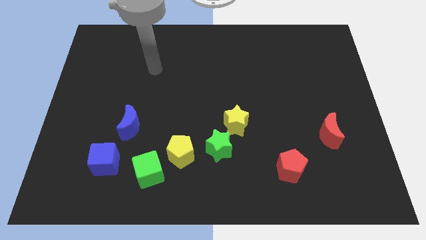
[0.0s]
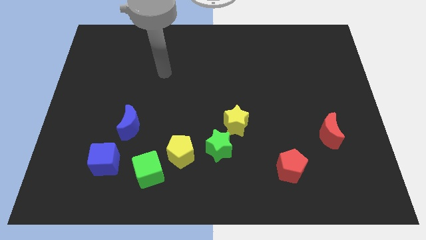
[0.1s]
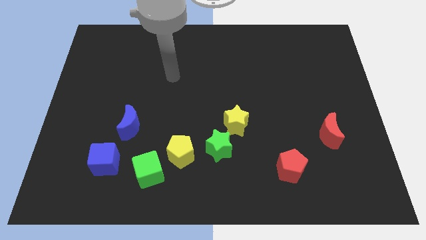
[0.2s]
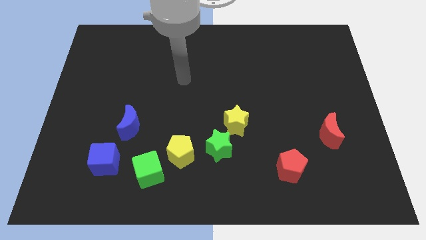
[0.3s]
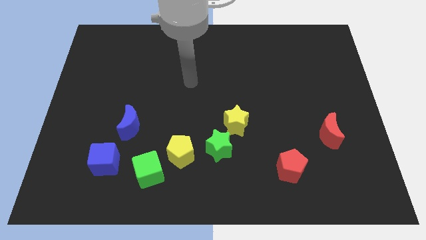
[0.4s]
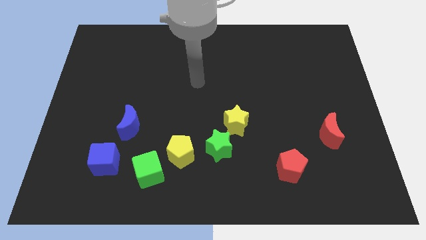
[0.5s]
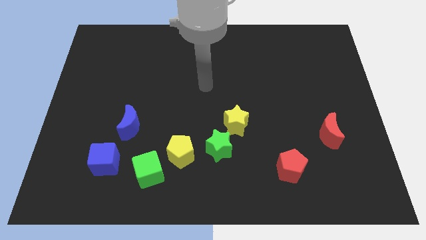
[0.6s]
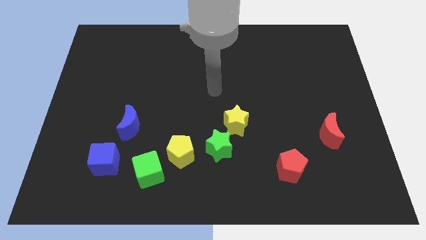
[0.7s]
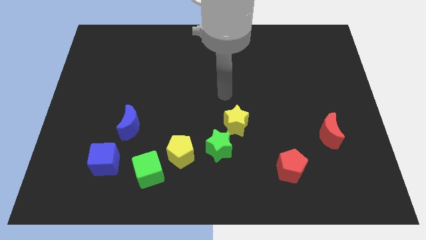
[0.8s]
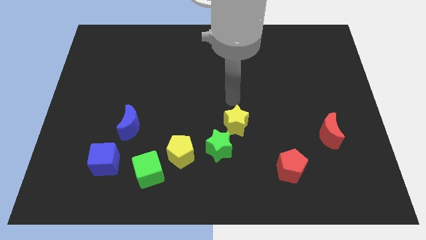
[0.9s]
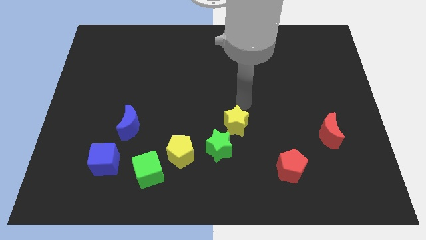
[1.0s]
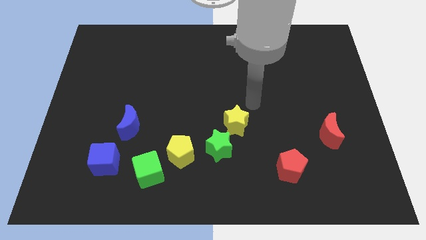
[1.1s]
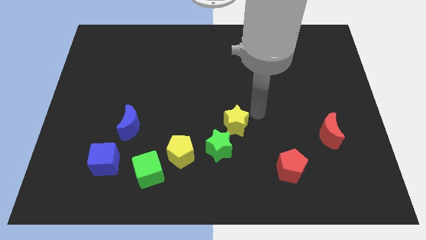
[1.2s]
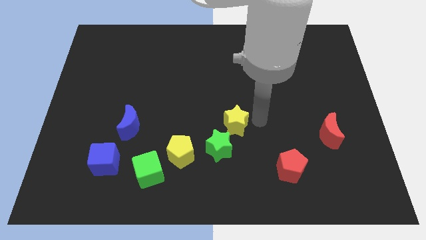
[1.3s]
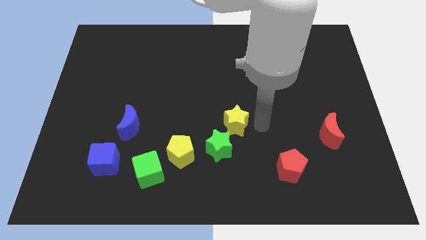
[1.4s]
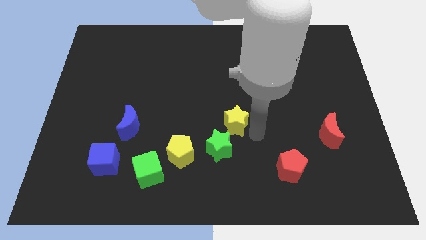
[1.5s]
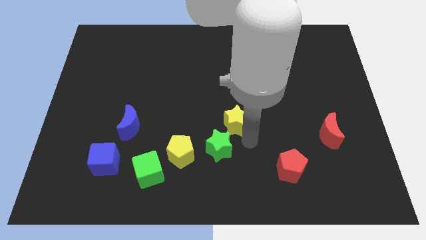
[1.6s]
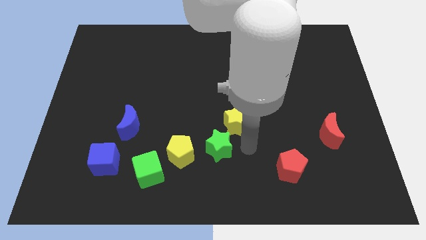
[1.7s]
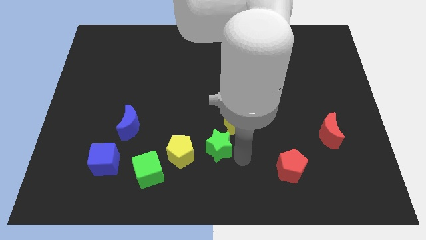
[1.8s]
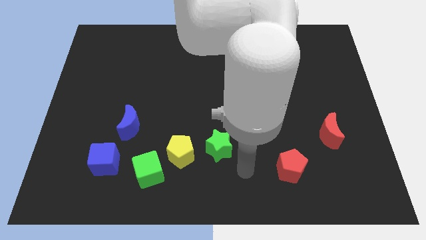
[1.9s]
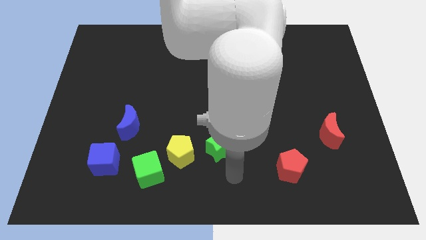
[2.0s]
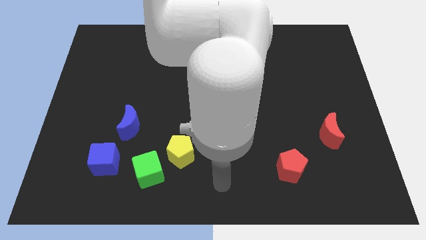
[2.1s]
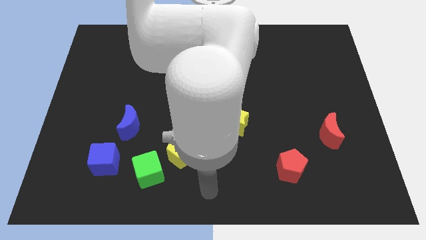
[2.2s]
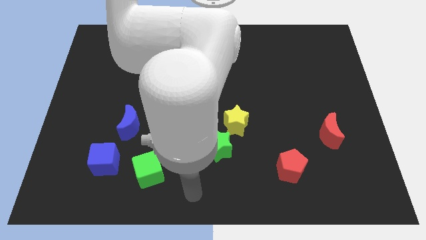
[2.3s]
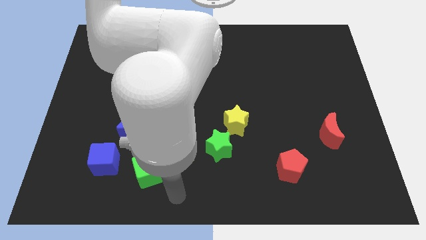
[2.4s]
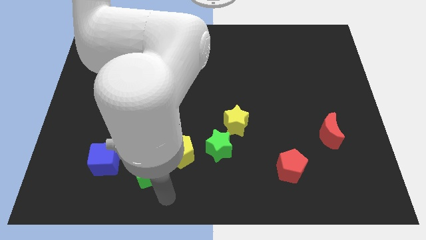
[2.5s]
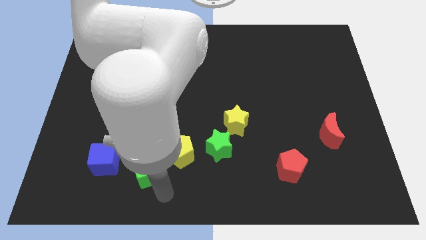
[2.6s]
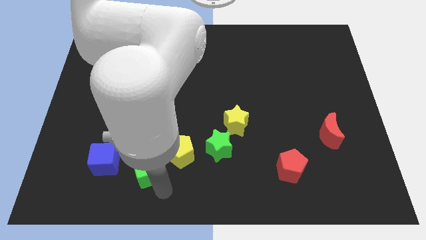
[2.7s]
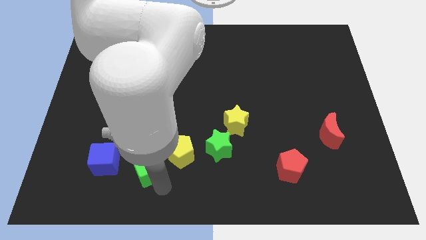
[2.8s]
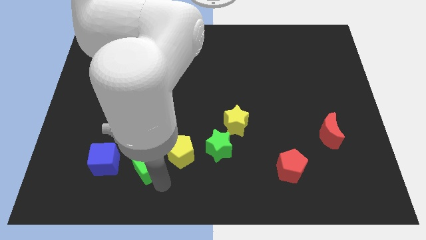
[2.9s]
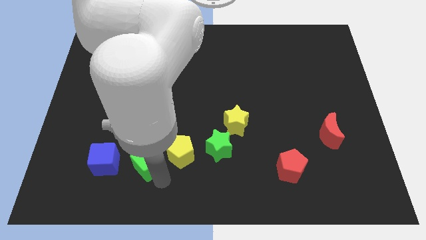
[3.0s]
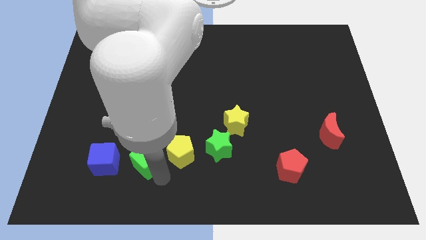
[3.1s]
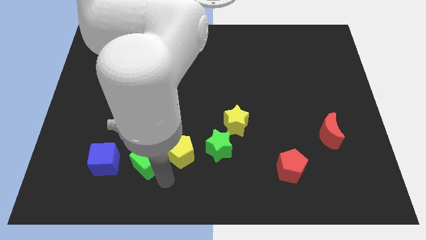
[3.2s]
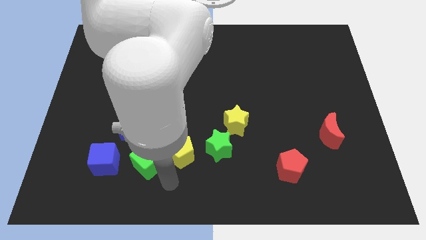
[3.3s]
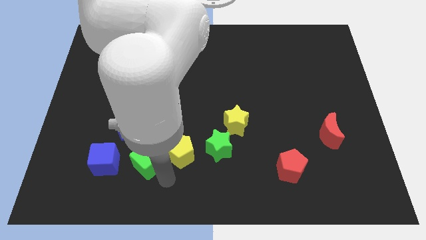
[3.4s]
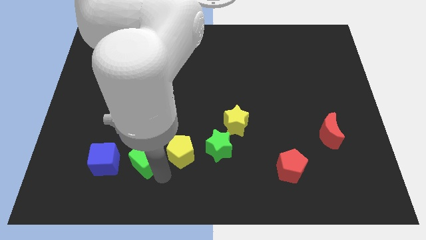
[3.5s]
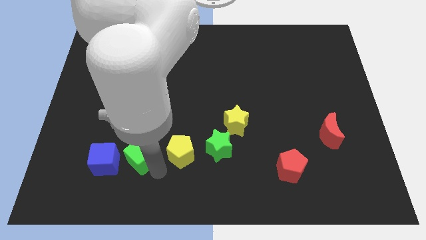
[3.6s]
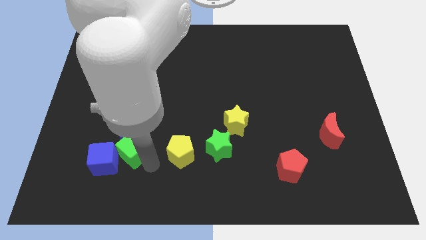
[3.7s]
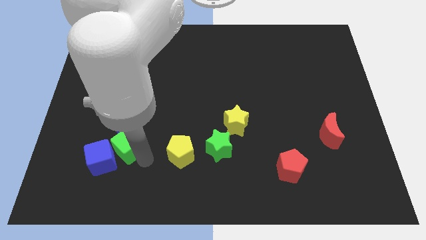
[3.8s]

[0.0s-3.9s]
slightly move the green cube upwards and to the left diagonally

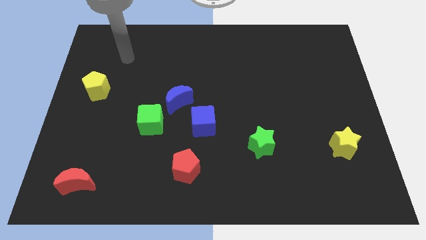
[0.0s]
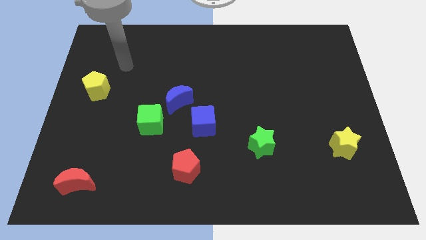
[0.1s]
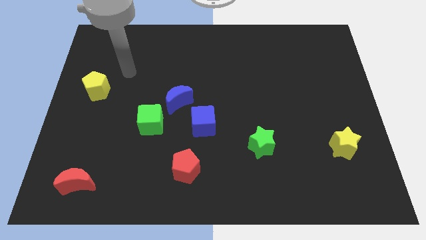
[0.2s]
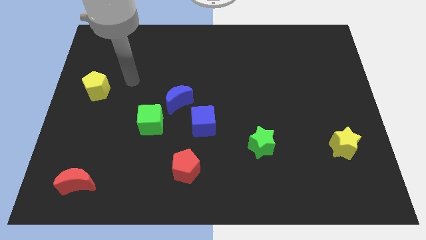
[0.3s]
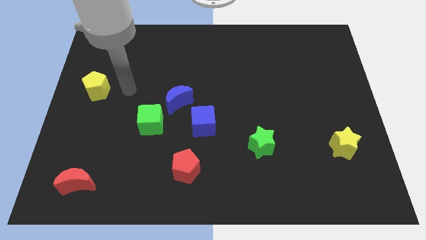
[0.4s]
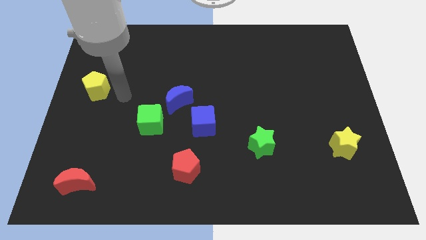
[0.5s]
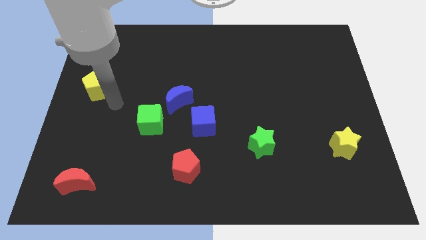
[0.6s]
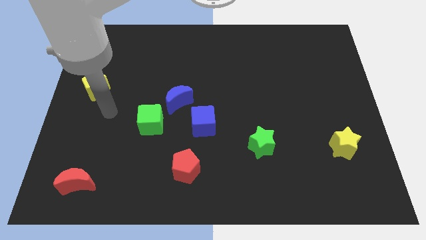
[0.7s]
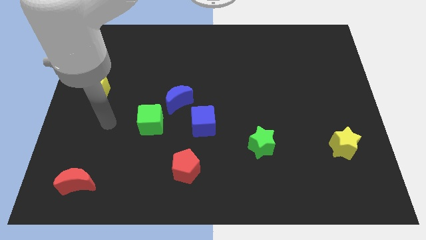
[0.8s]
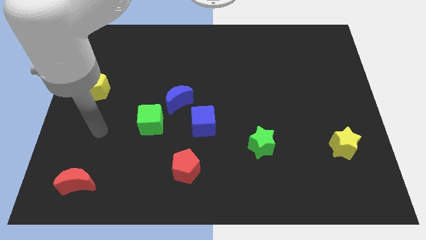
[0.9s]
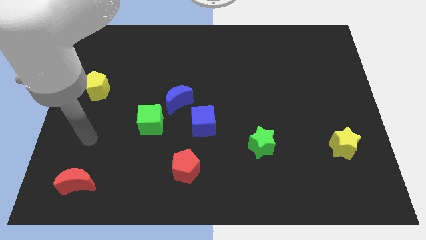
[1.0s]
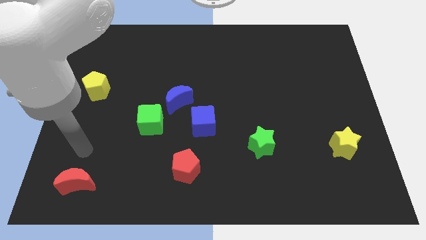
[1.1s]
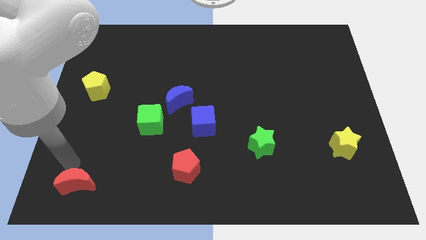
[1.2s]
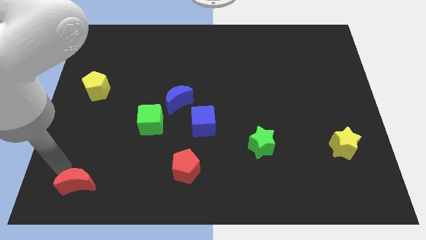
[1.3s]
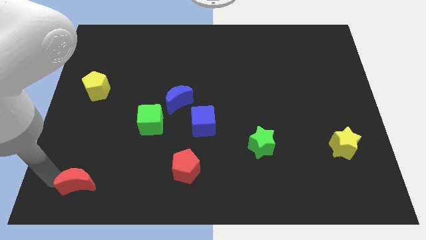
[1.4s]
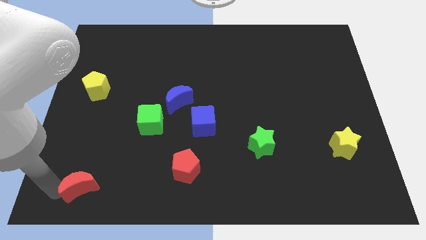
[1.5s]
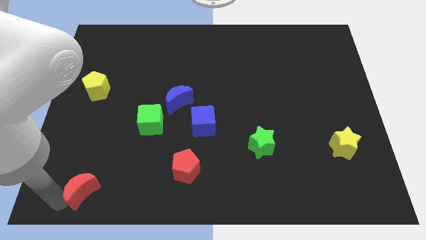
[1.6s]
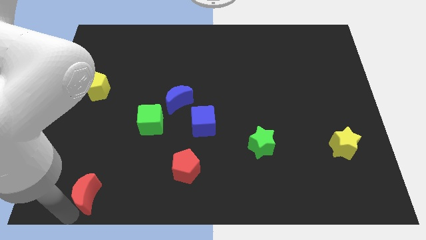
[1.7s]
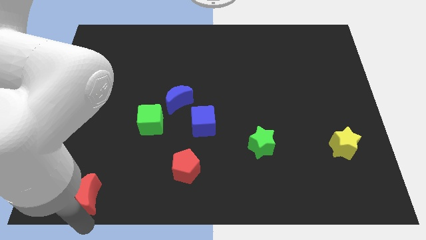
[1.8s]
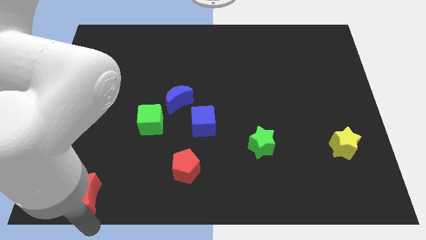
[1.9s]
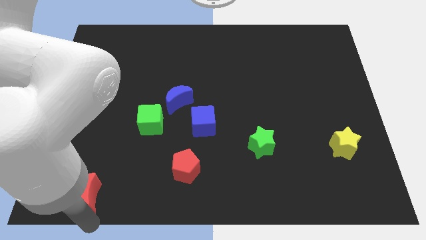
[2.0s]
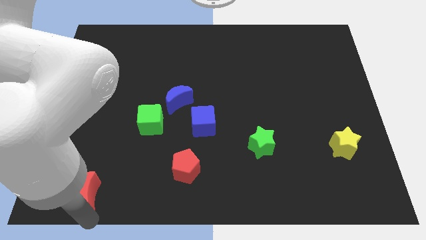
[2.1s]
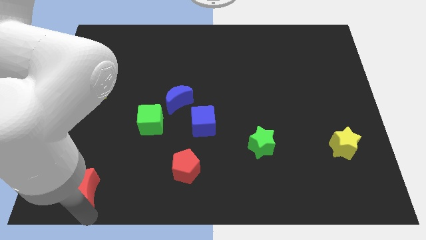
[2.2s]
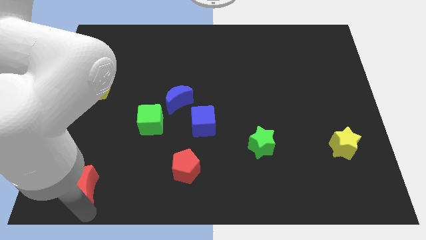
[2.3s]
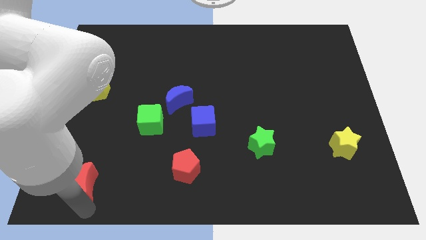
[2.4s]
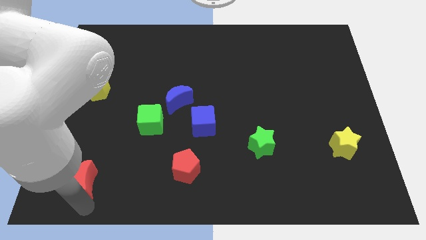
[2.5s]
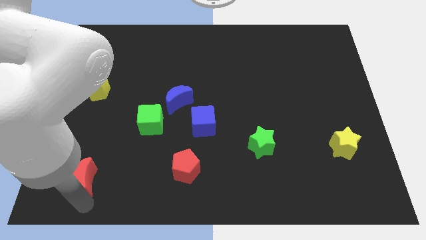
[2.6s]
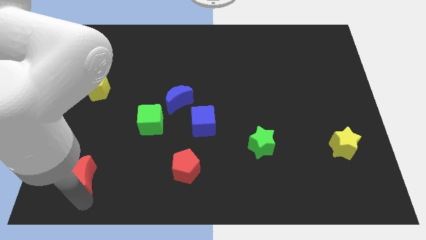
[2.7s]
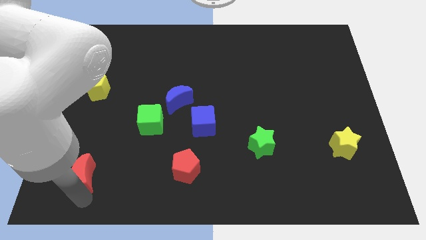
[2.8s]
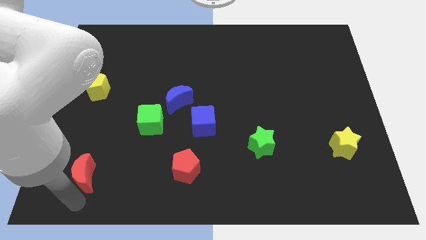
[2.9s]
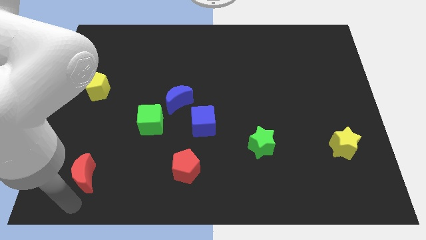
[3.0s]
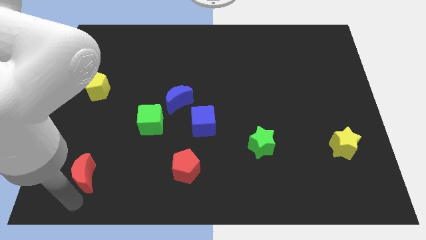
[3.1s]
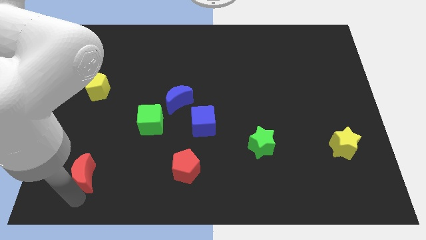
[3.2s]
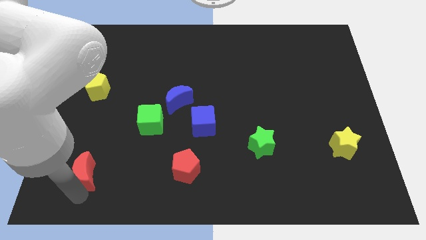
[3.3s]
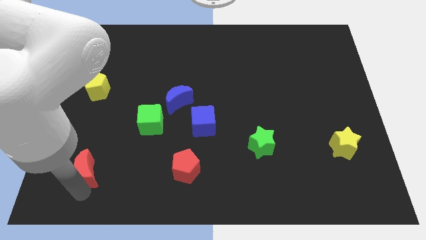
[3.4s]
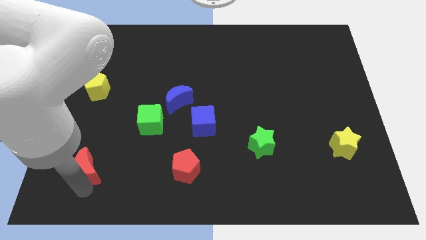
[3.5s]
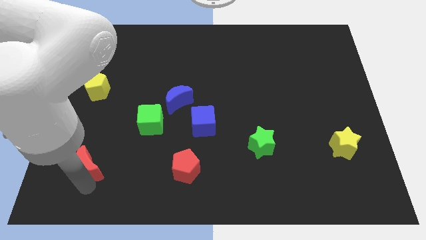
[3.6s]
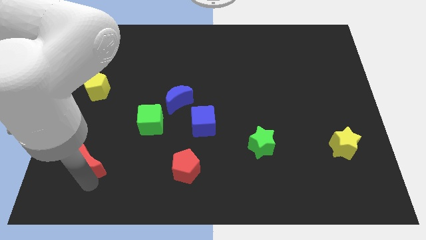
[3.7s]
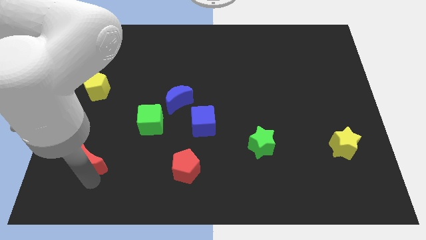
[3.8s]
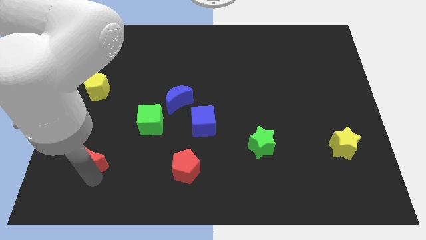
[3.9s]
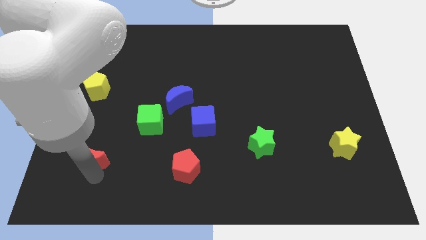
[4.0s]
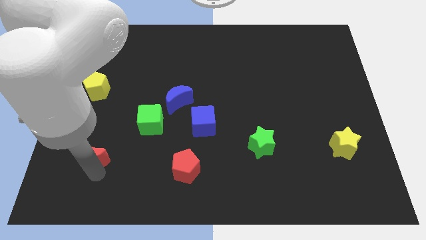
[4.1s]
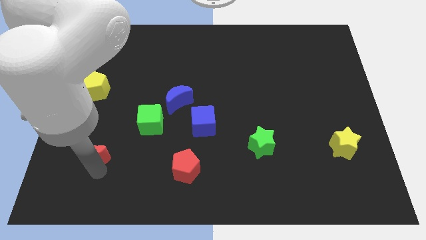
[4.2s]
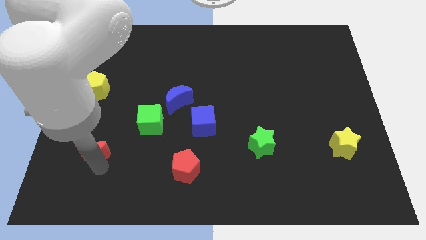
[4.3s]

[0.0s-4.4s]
slide the red moon a bit upwards
